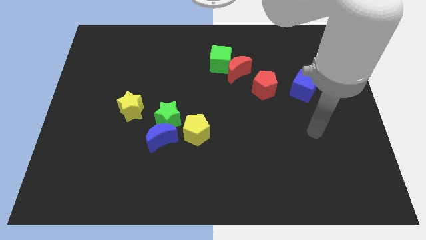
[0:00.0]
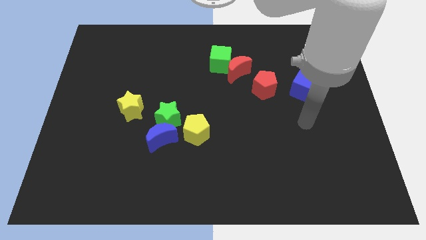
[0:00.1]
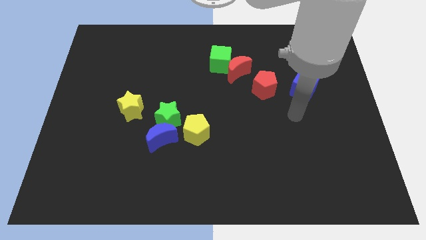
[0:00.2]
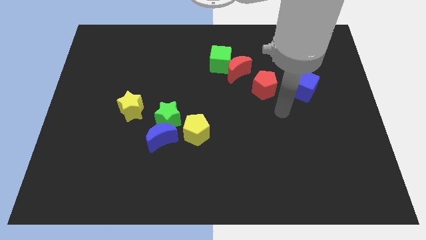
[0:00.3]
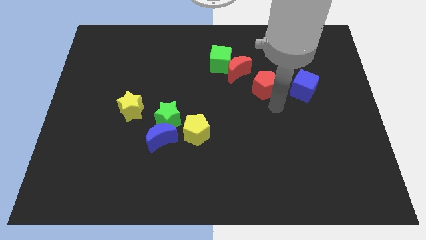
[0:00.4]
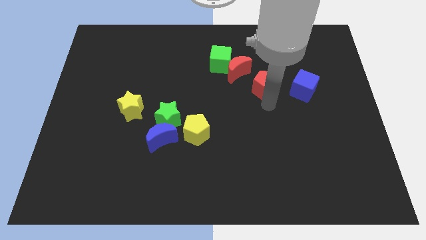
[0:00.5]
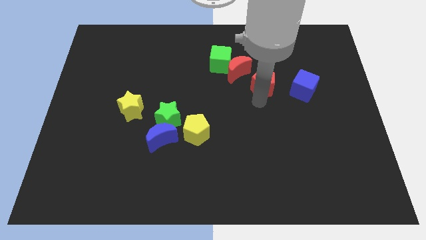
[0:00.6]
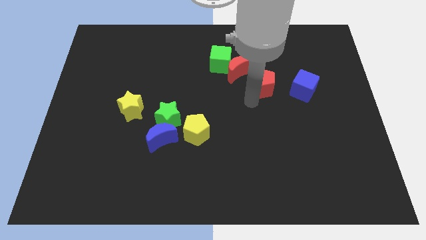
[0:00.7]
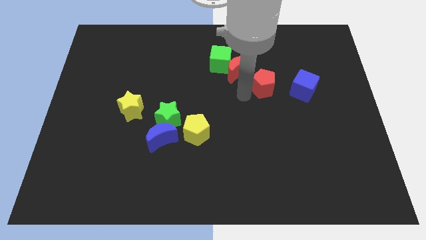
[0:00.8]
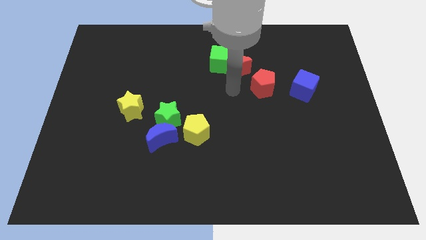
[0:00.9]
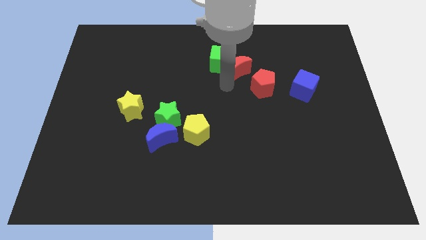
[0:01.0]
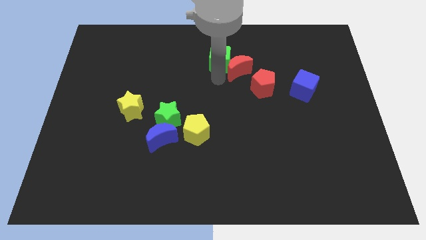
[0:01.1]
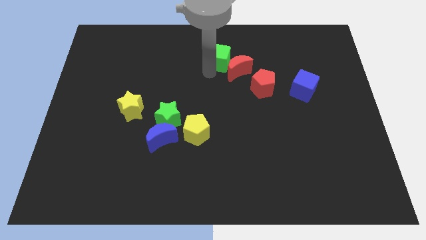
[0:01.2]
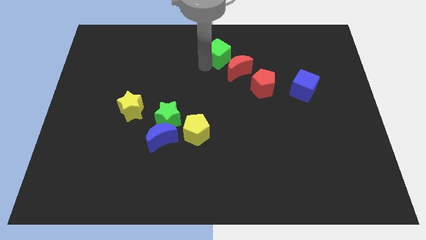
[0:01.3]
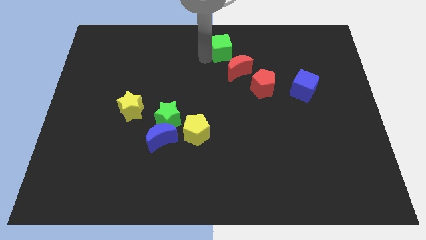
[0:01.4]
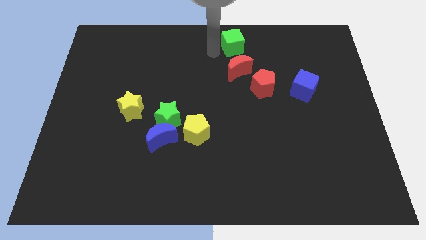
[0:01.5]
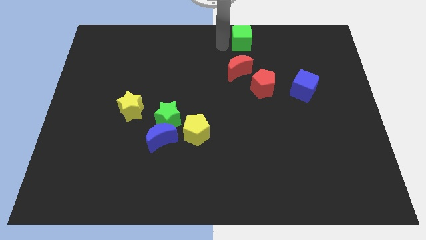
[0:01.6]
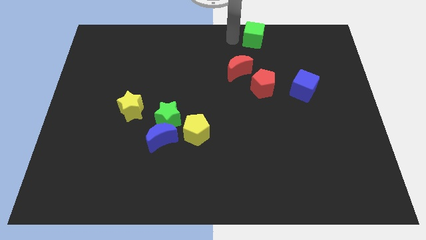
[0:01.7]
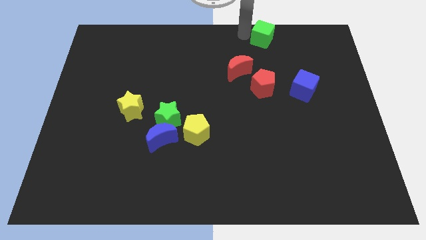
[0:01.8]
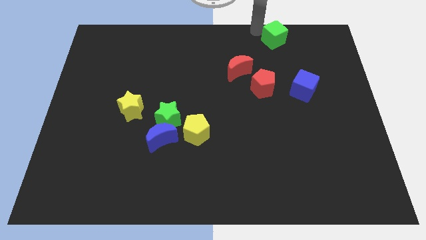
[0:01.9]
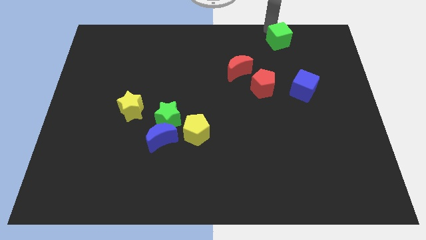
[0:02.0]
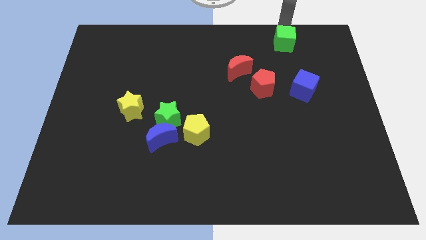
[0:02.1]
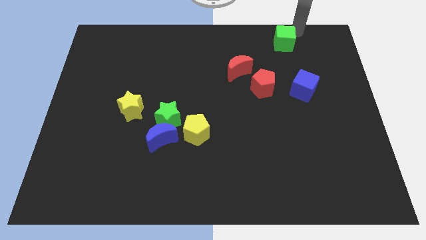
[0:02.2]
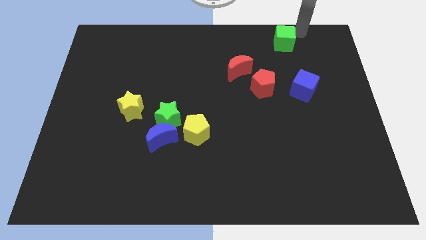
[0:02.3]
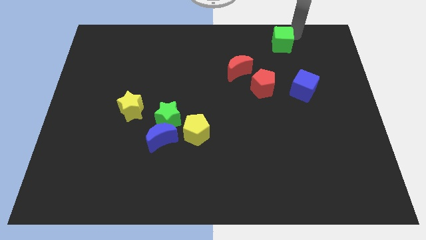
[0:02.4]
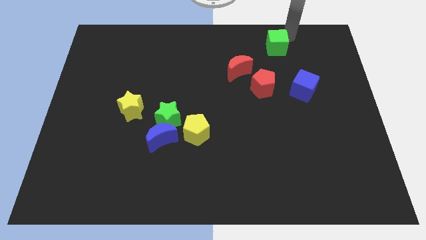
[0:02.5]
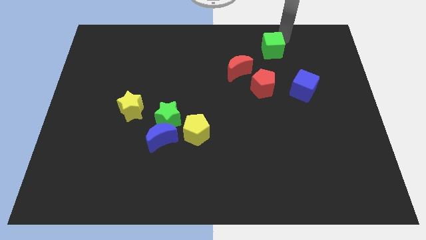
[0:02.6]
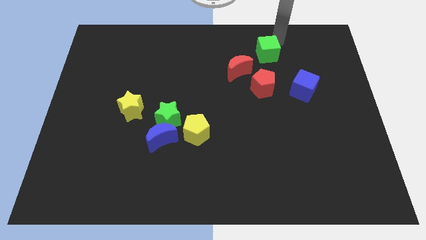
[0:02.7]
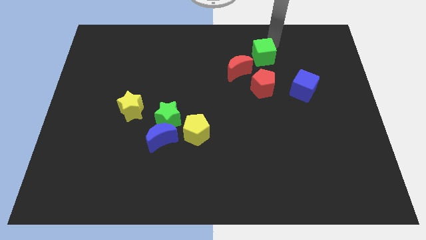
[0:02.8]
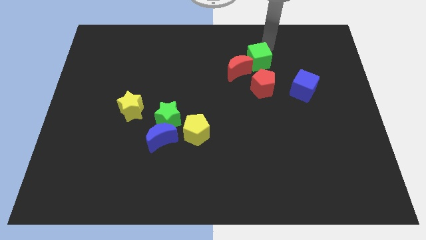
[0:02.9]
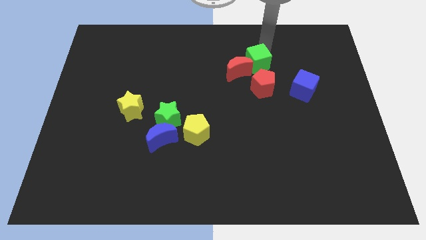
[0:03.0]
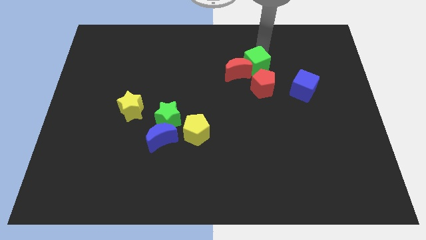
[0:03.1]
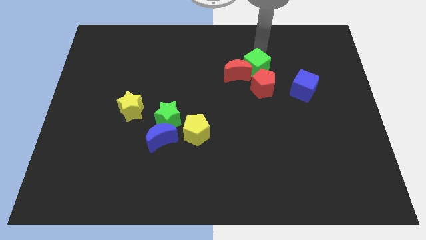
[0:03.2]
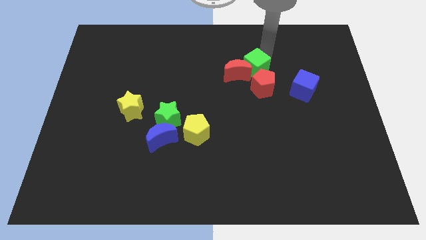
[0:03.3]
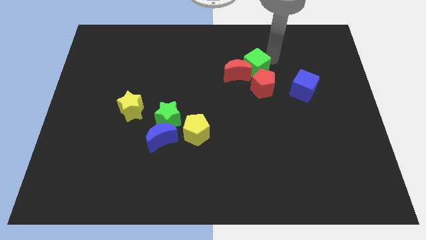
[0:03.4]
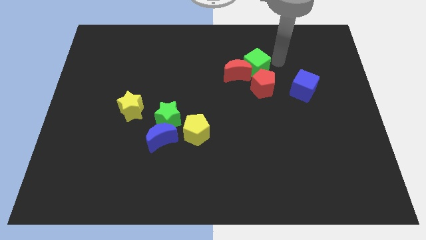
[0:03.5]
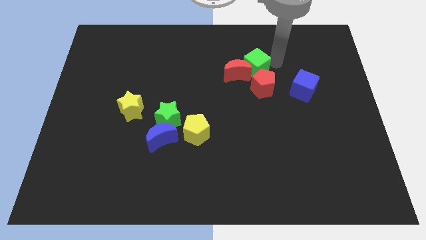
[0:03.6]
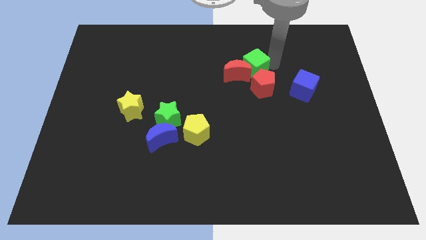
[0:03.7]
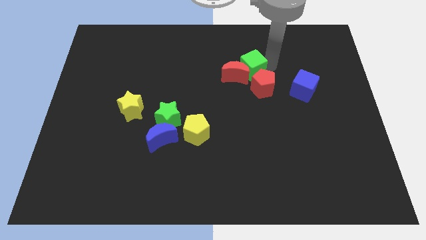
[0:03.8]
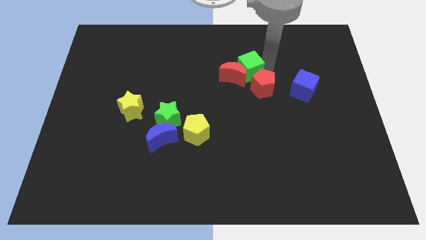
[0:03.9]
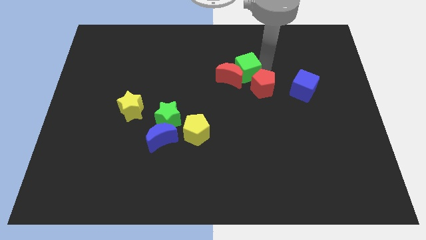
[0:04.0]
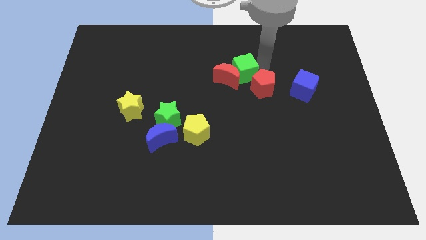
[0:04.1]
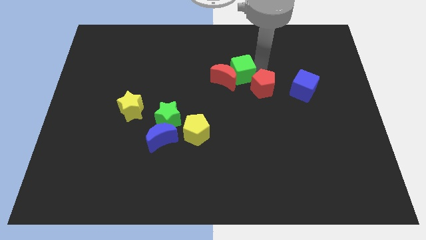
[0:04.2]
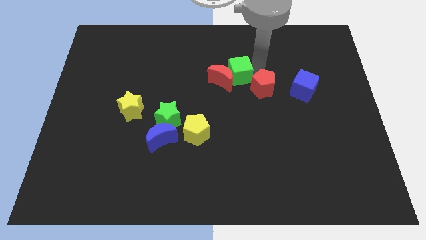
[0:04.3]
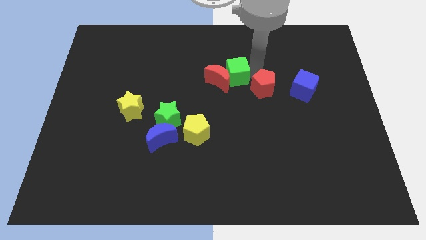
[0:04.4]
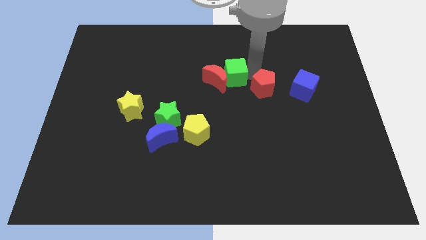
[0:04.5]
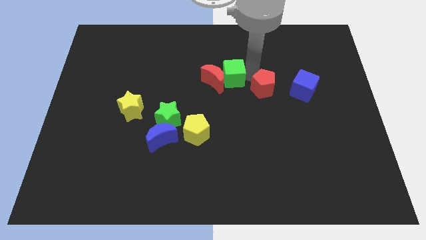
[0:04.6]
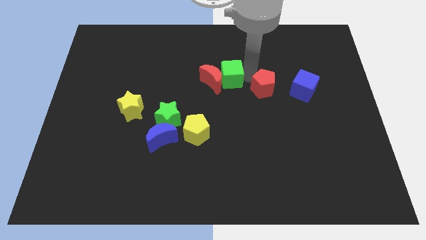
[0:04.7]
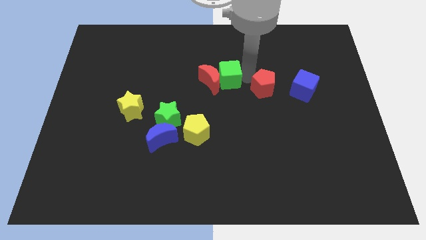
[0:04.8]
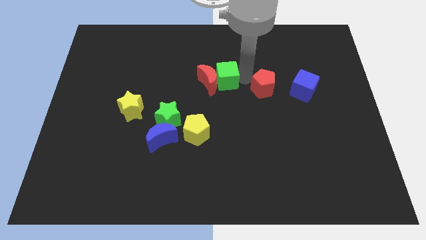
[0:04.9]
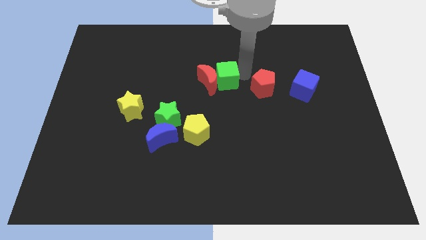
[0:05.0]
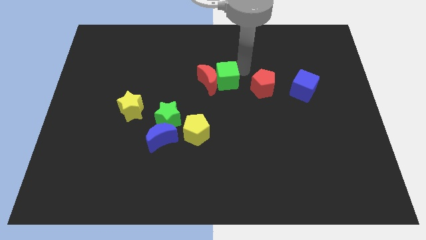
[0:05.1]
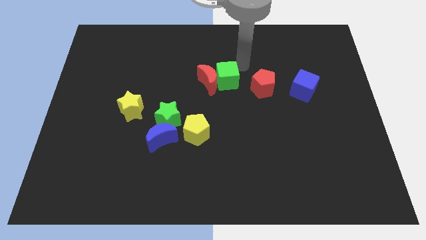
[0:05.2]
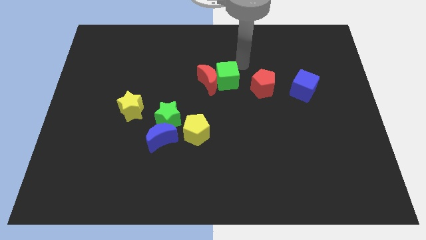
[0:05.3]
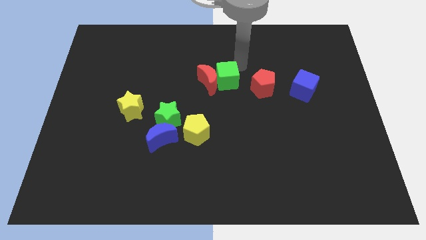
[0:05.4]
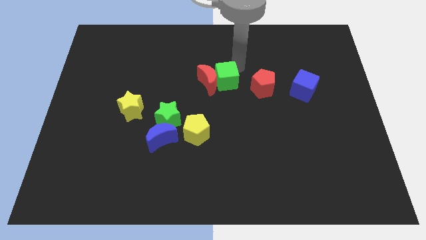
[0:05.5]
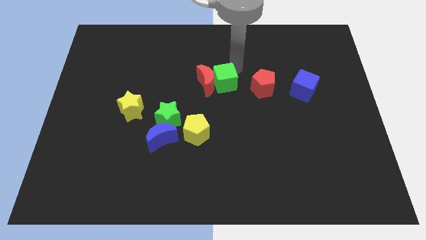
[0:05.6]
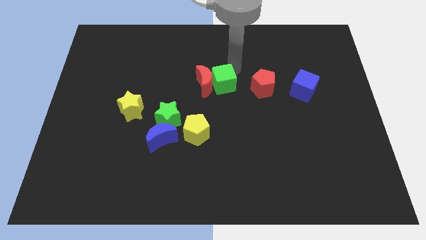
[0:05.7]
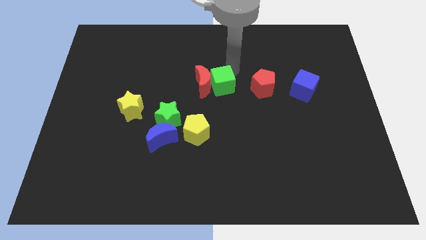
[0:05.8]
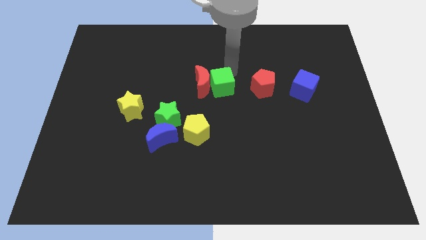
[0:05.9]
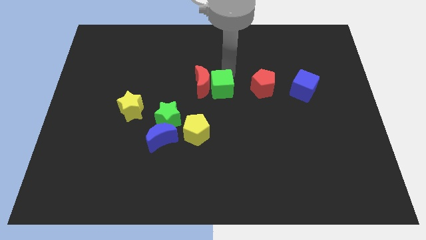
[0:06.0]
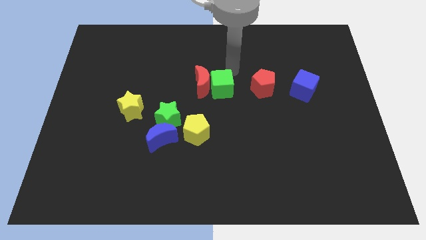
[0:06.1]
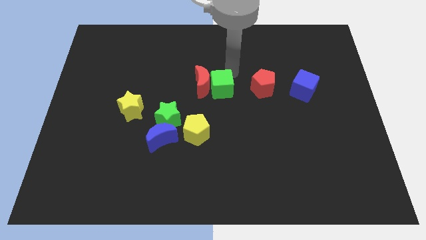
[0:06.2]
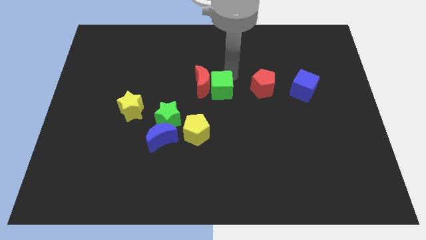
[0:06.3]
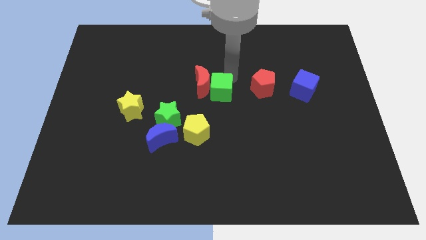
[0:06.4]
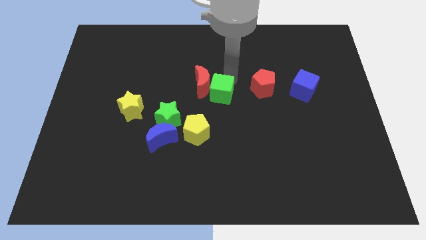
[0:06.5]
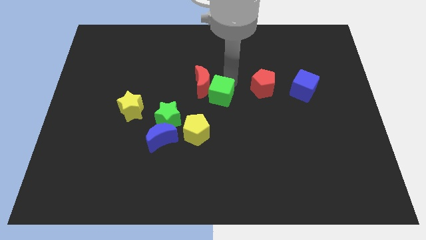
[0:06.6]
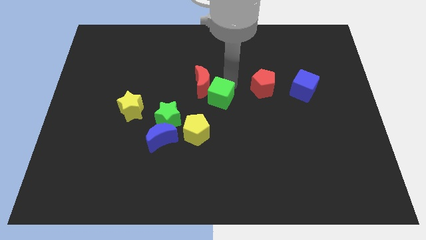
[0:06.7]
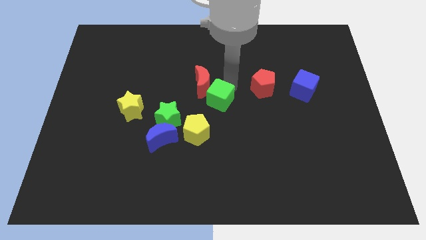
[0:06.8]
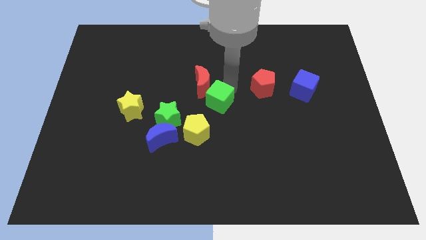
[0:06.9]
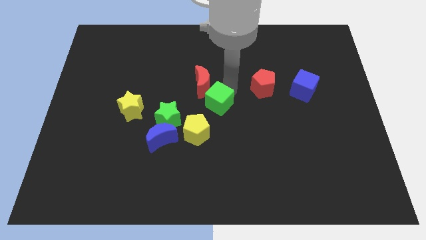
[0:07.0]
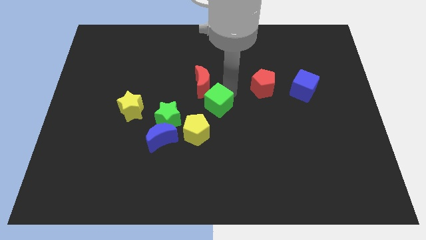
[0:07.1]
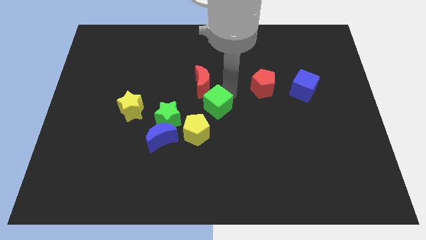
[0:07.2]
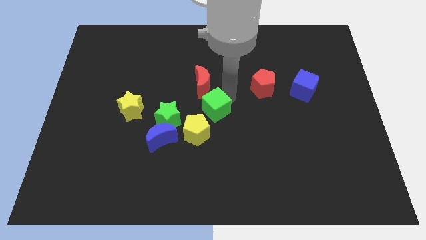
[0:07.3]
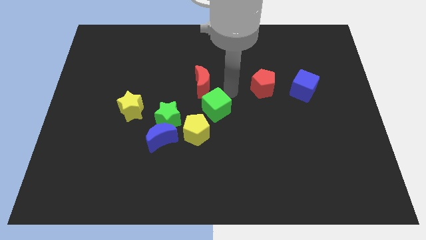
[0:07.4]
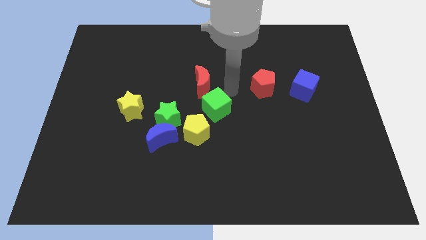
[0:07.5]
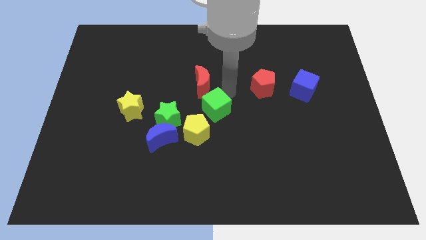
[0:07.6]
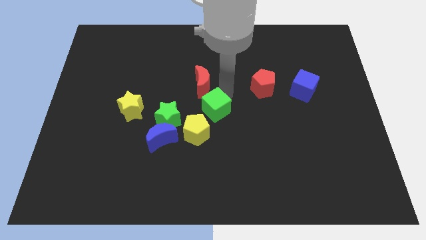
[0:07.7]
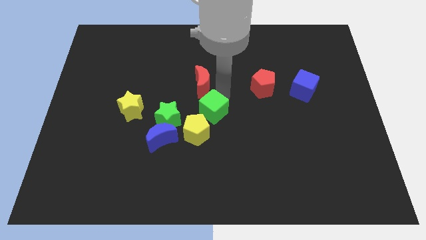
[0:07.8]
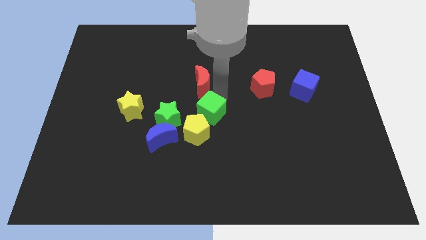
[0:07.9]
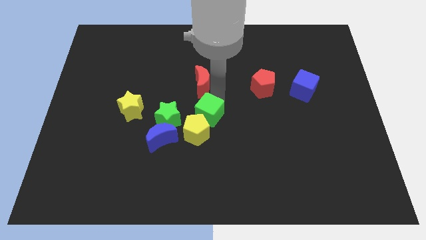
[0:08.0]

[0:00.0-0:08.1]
move the green cube close to the yellow pentagon

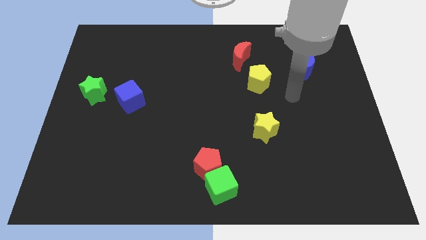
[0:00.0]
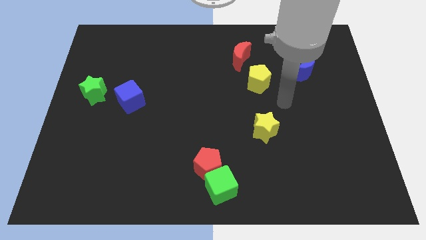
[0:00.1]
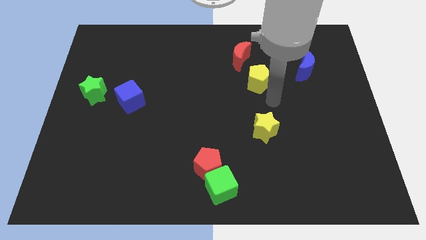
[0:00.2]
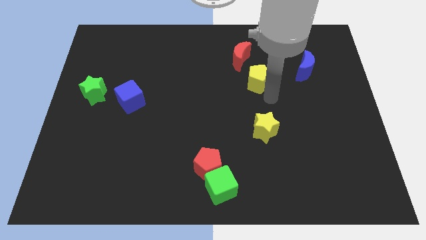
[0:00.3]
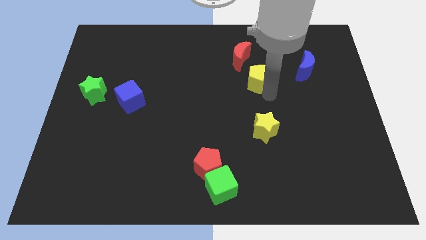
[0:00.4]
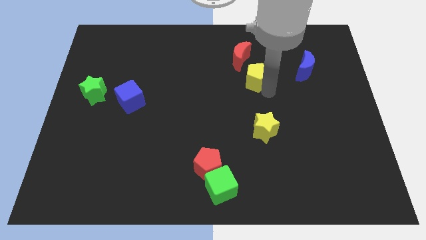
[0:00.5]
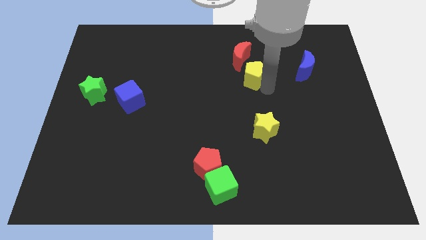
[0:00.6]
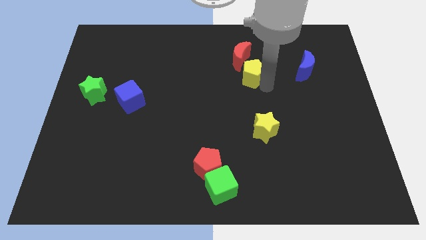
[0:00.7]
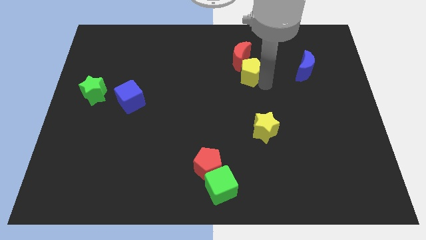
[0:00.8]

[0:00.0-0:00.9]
slide the yellow pentagon close to the red moon
